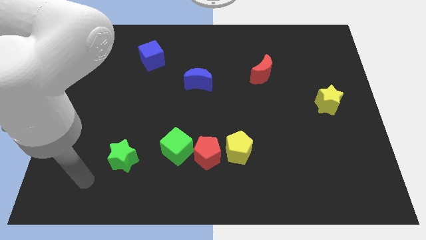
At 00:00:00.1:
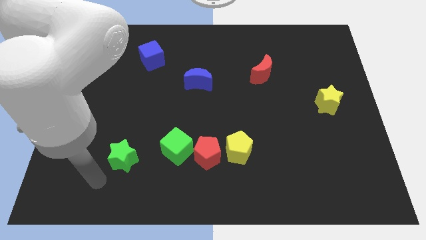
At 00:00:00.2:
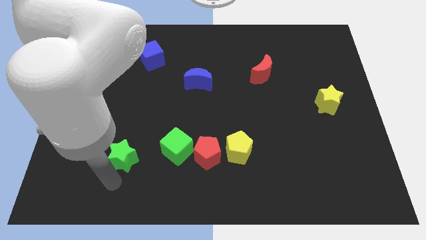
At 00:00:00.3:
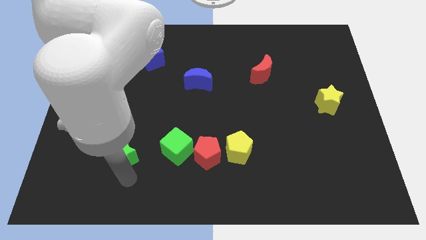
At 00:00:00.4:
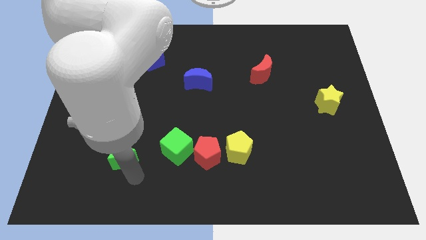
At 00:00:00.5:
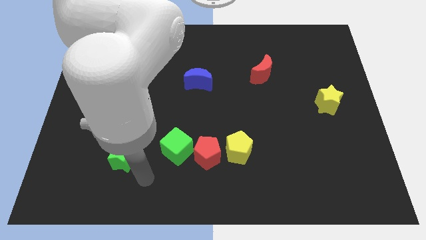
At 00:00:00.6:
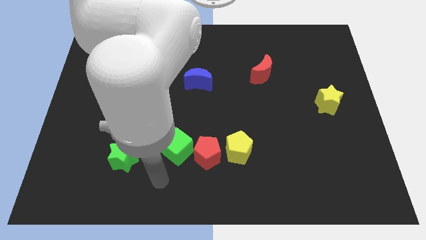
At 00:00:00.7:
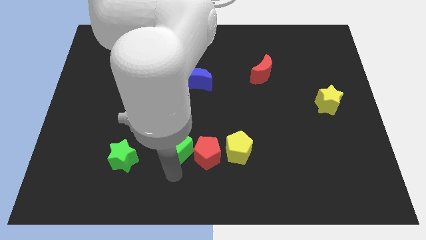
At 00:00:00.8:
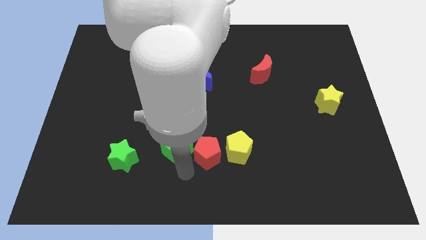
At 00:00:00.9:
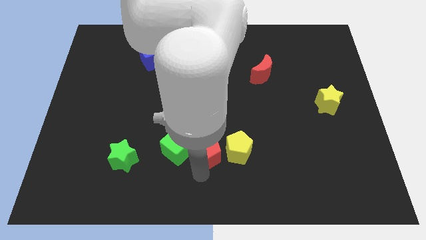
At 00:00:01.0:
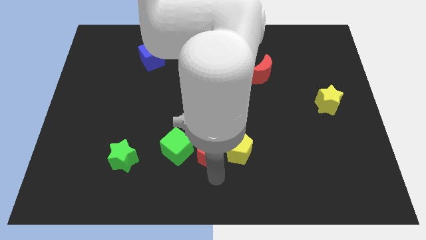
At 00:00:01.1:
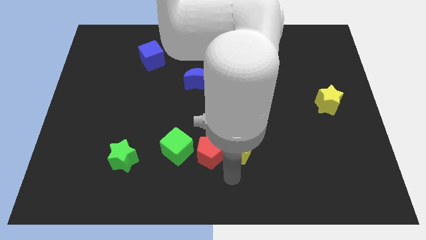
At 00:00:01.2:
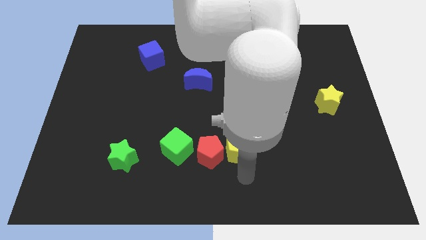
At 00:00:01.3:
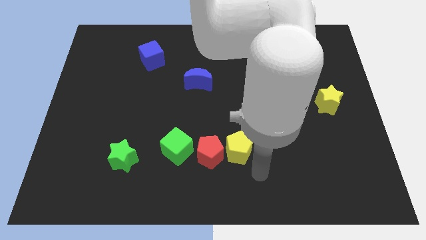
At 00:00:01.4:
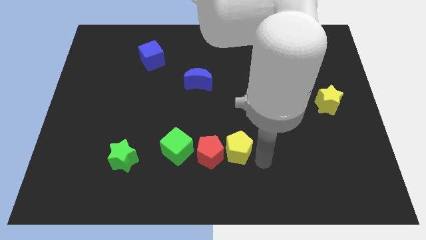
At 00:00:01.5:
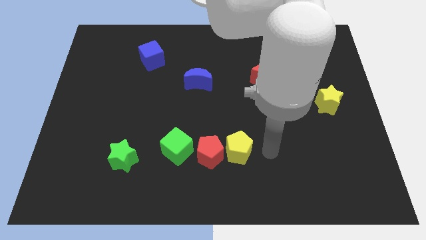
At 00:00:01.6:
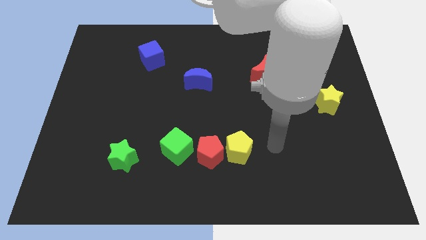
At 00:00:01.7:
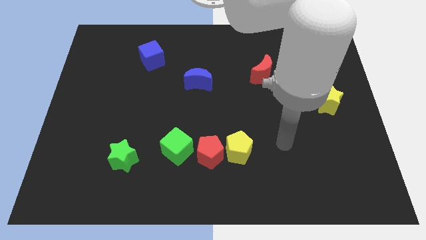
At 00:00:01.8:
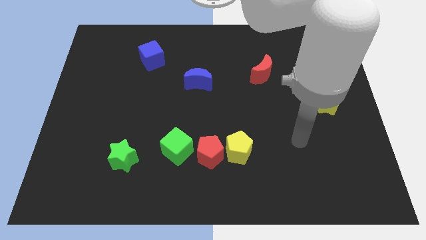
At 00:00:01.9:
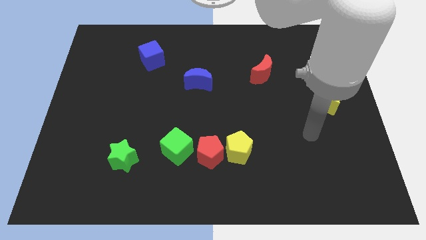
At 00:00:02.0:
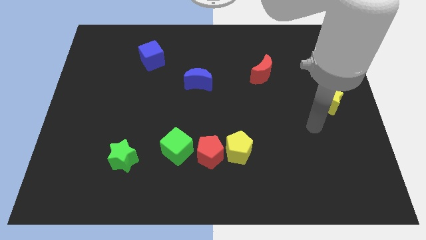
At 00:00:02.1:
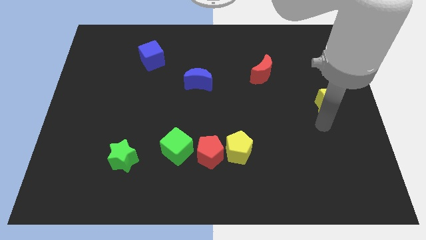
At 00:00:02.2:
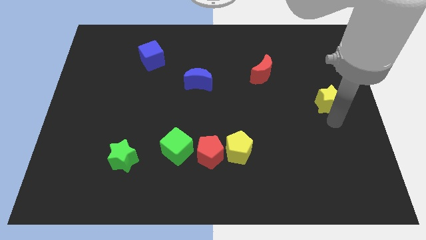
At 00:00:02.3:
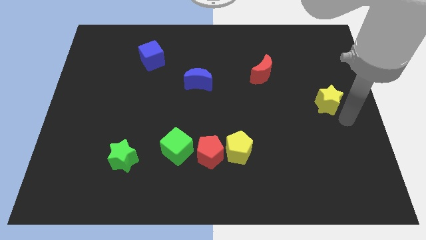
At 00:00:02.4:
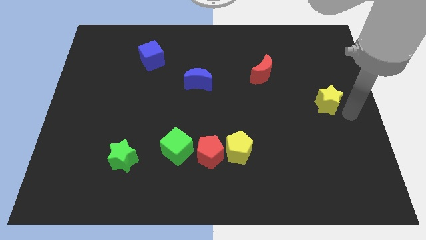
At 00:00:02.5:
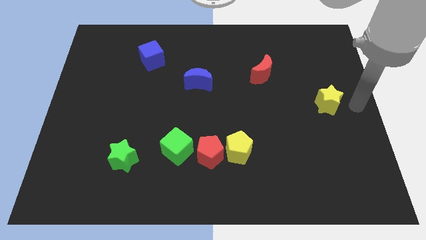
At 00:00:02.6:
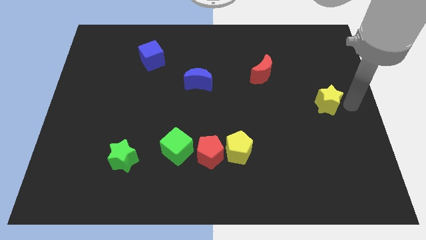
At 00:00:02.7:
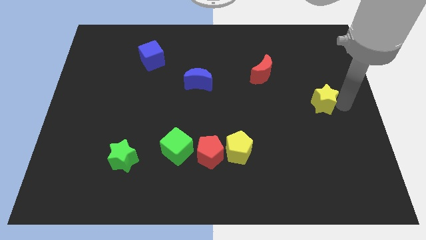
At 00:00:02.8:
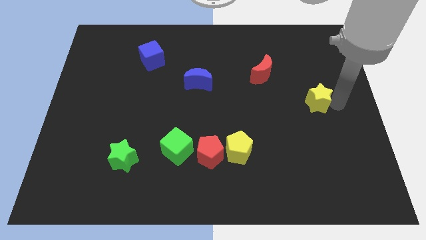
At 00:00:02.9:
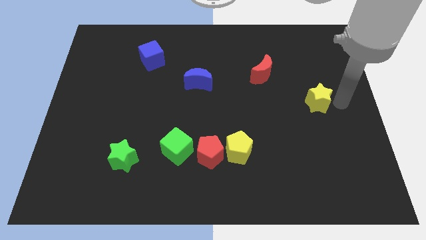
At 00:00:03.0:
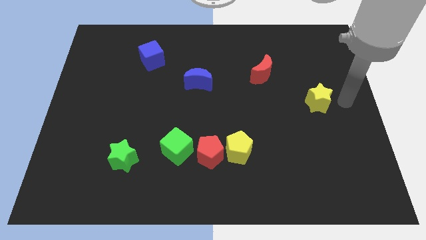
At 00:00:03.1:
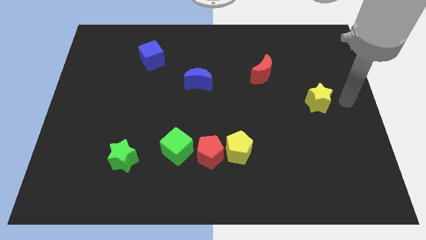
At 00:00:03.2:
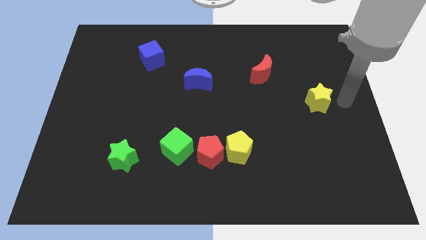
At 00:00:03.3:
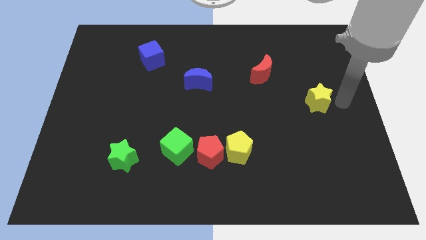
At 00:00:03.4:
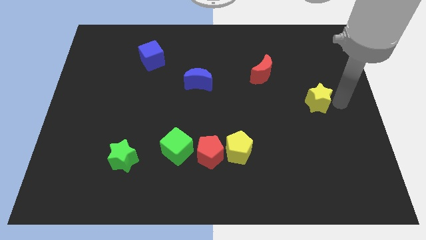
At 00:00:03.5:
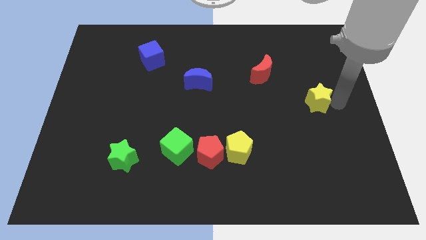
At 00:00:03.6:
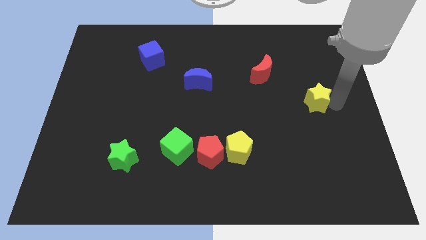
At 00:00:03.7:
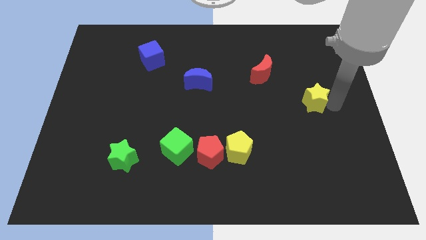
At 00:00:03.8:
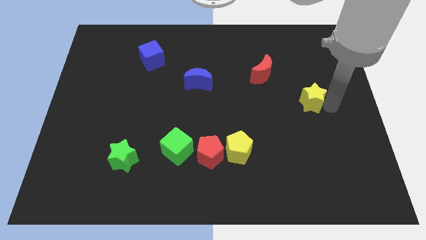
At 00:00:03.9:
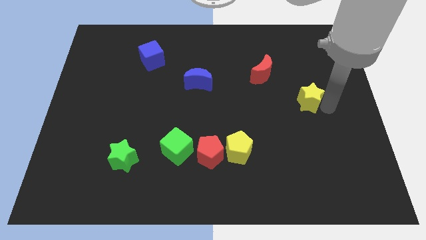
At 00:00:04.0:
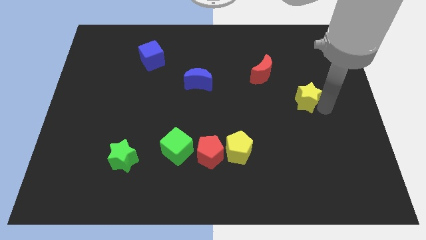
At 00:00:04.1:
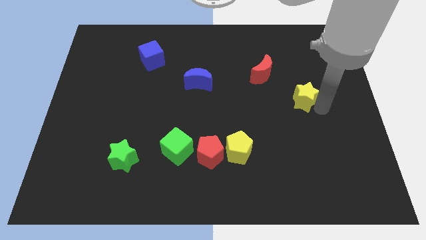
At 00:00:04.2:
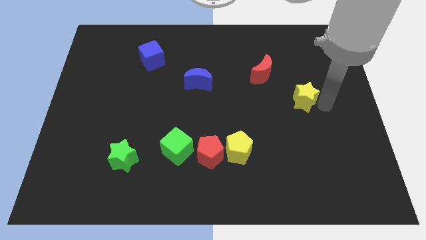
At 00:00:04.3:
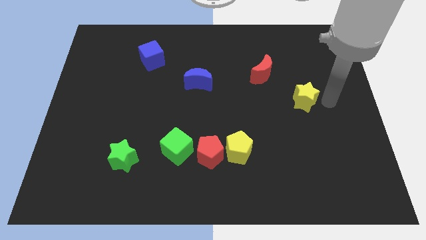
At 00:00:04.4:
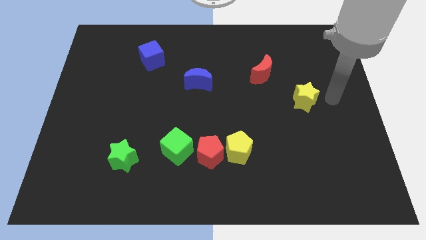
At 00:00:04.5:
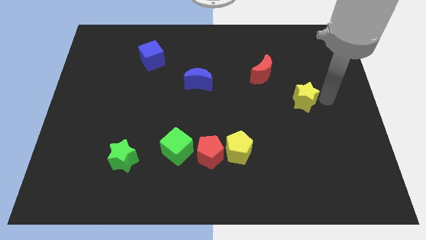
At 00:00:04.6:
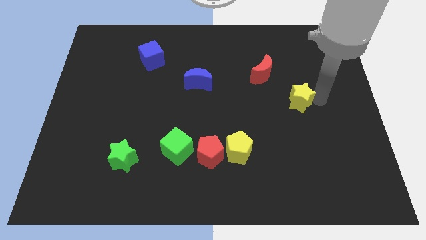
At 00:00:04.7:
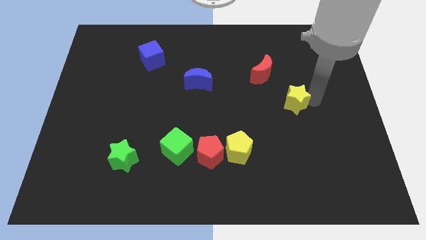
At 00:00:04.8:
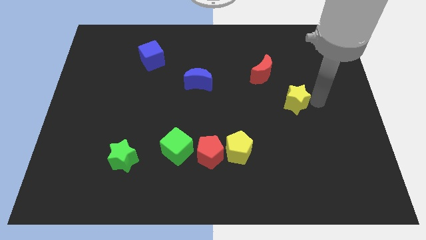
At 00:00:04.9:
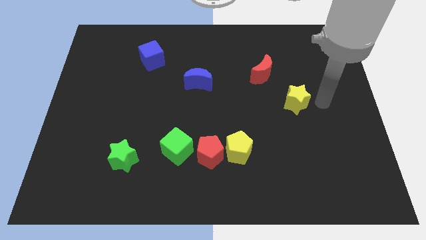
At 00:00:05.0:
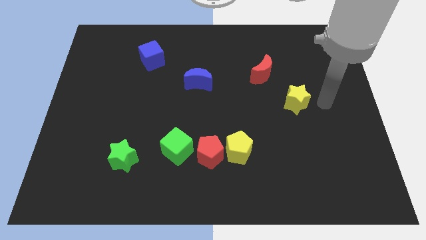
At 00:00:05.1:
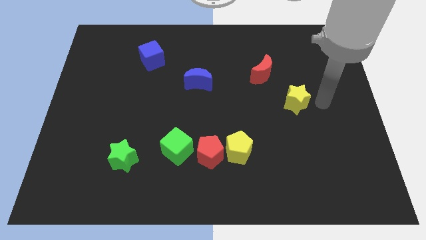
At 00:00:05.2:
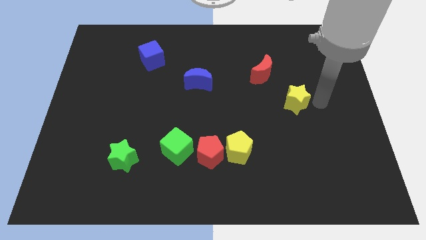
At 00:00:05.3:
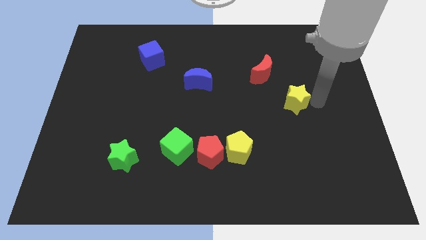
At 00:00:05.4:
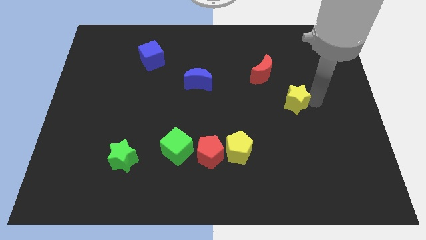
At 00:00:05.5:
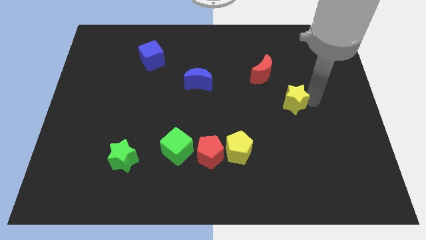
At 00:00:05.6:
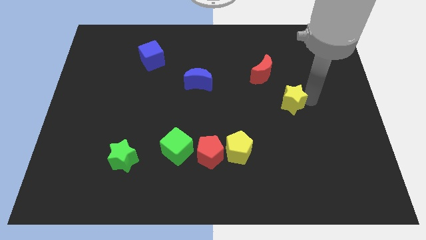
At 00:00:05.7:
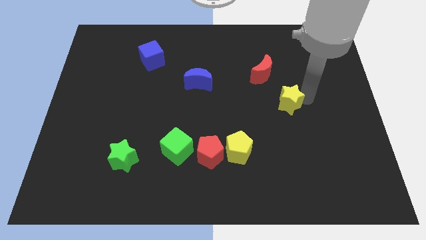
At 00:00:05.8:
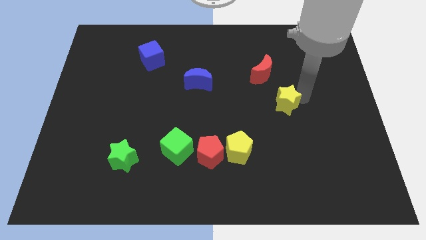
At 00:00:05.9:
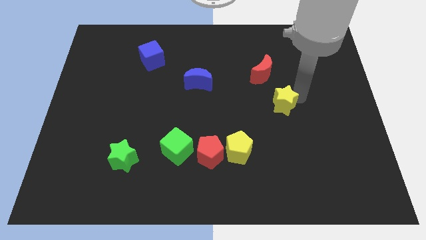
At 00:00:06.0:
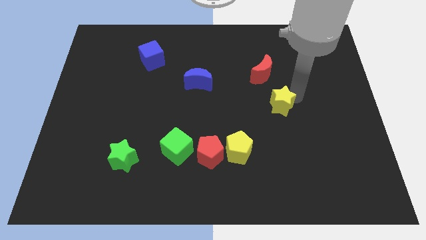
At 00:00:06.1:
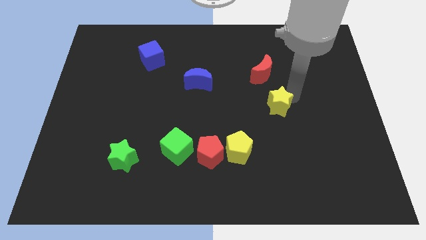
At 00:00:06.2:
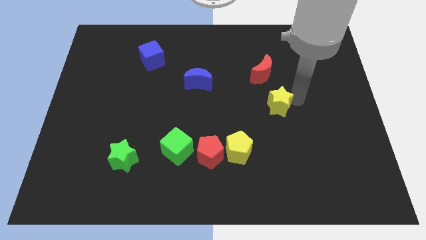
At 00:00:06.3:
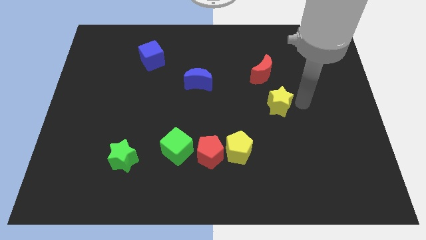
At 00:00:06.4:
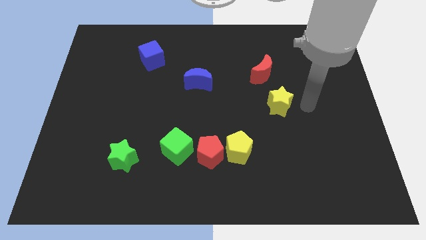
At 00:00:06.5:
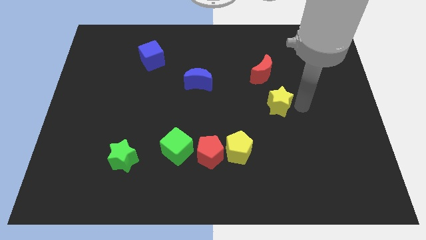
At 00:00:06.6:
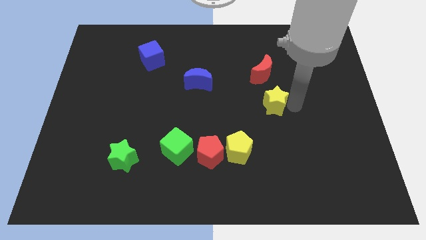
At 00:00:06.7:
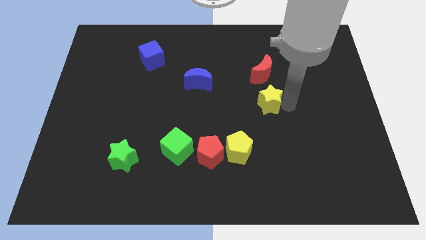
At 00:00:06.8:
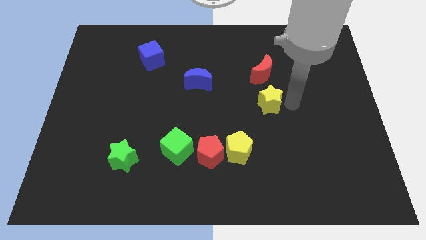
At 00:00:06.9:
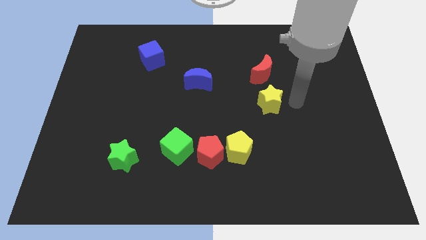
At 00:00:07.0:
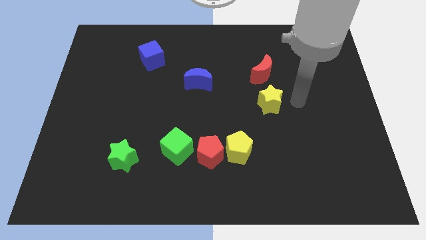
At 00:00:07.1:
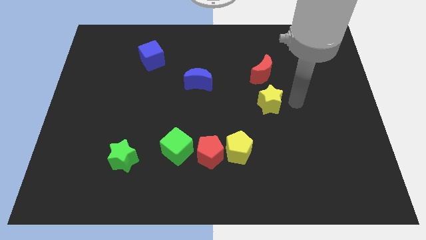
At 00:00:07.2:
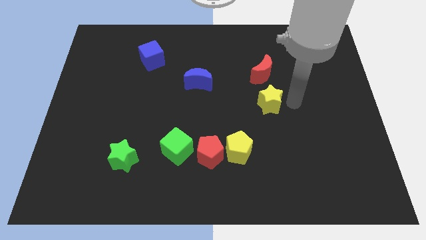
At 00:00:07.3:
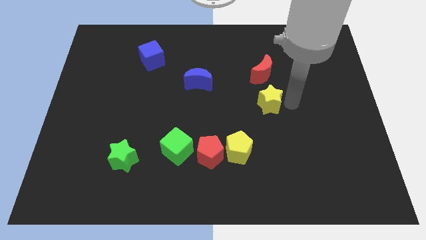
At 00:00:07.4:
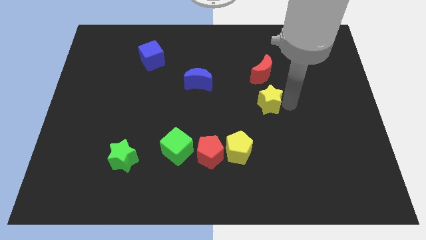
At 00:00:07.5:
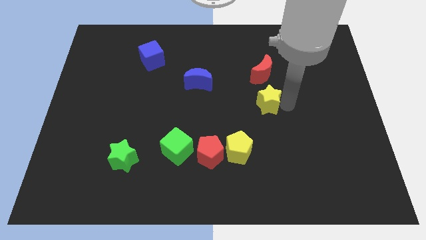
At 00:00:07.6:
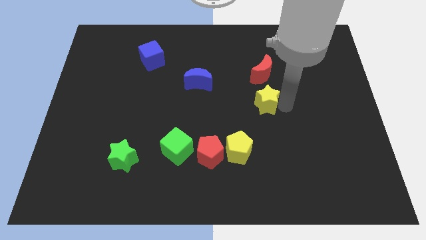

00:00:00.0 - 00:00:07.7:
put the yellow star to the middle of the board
